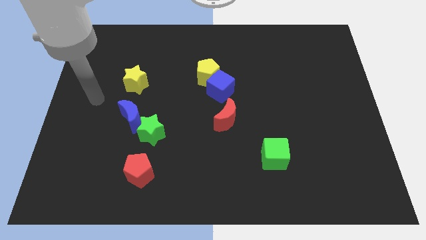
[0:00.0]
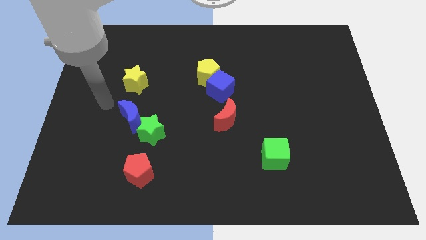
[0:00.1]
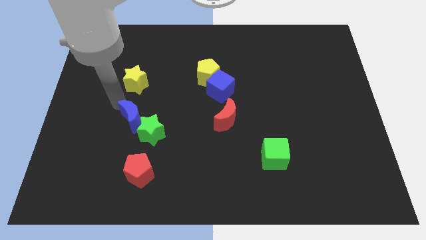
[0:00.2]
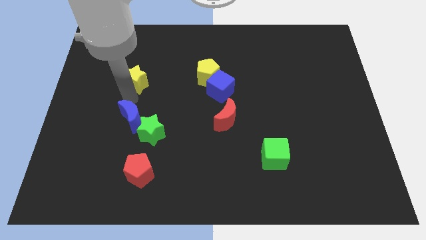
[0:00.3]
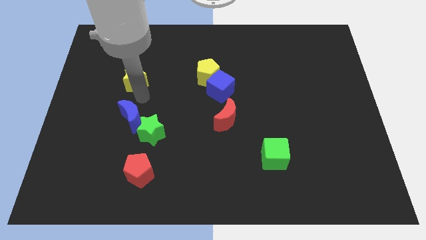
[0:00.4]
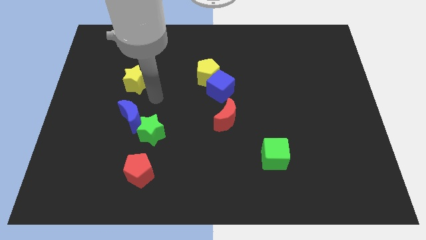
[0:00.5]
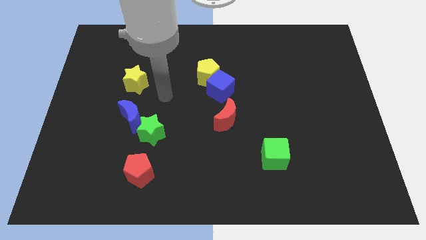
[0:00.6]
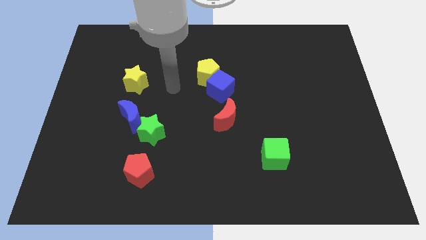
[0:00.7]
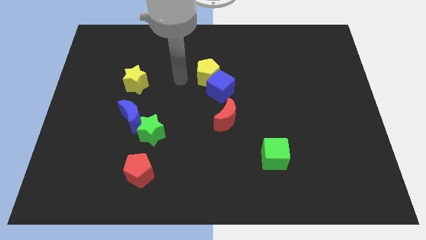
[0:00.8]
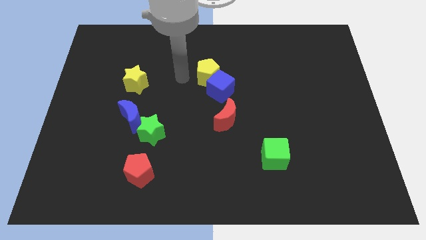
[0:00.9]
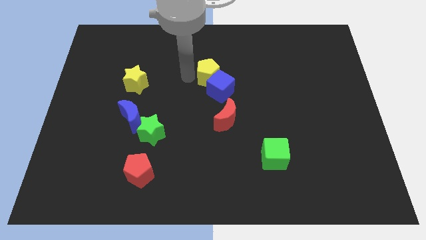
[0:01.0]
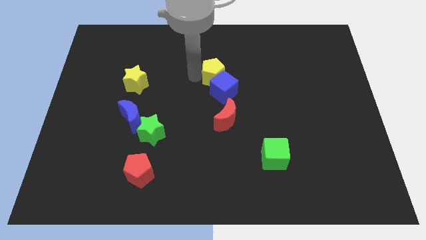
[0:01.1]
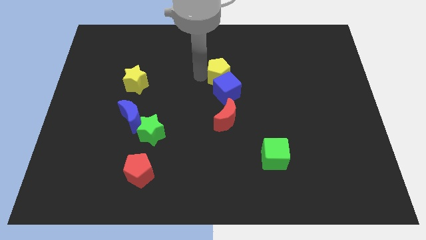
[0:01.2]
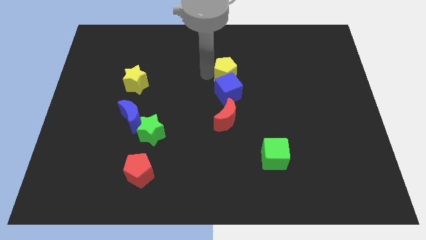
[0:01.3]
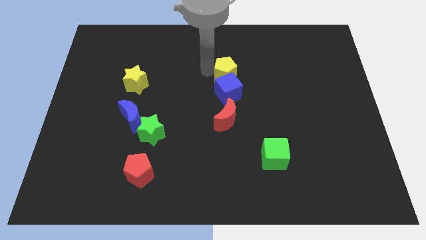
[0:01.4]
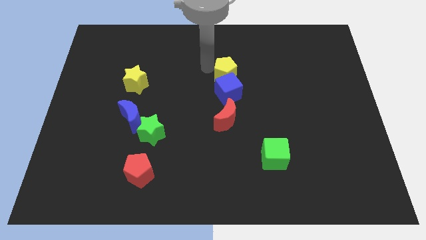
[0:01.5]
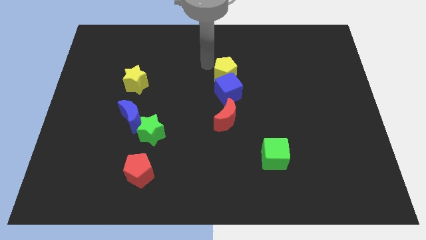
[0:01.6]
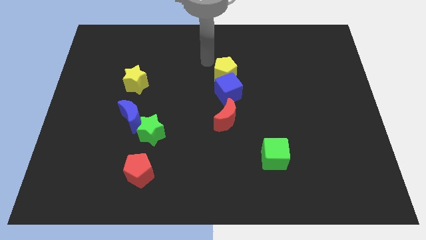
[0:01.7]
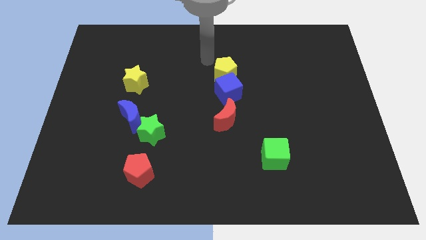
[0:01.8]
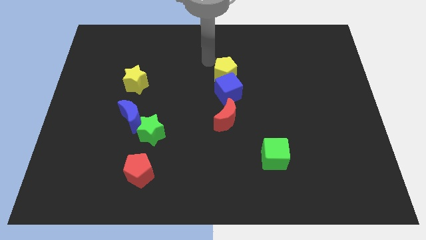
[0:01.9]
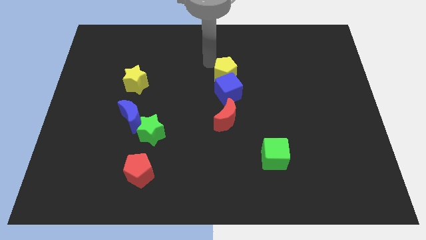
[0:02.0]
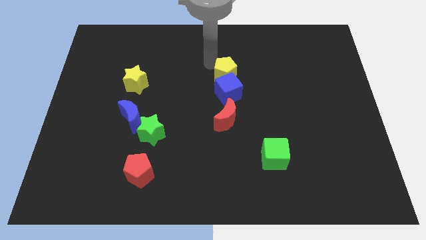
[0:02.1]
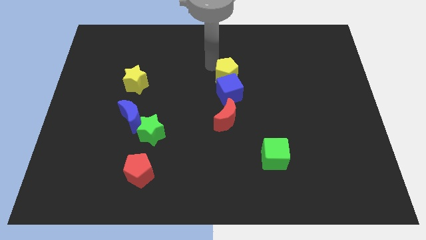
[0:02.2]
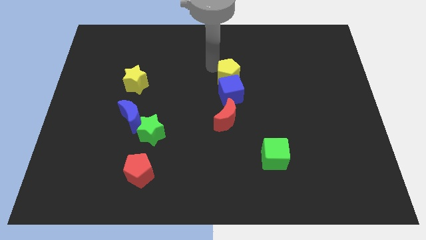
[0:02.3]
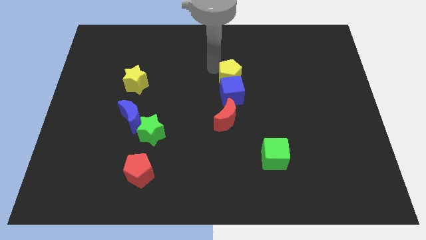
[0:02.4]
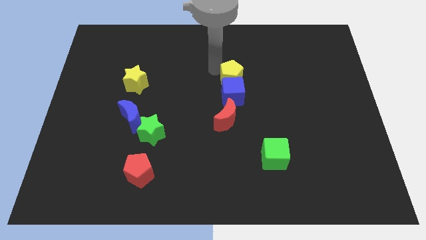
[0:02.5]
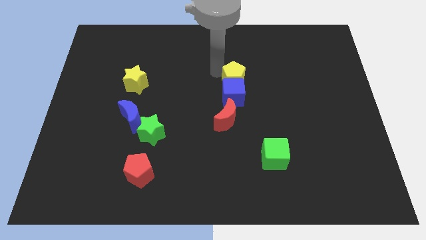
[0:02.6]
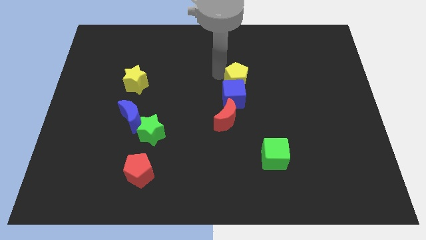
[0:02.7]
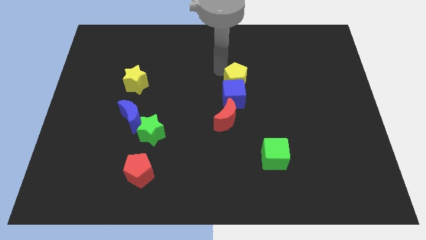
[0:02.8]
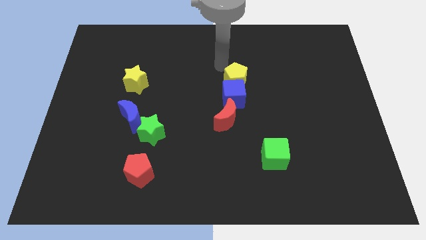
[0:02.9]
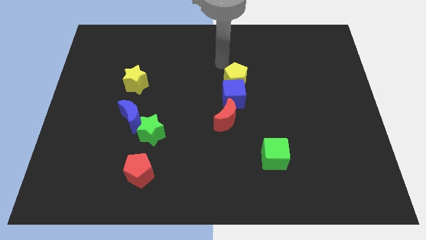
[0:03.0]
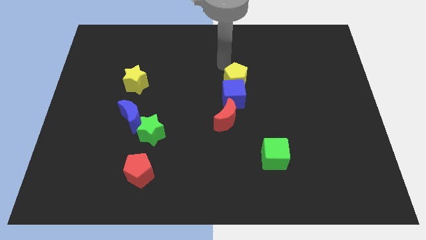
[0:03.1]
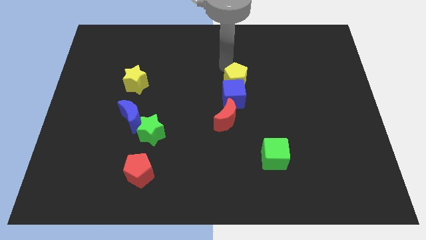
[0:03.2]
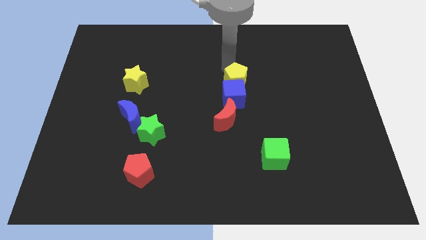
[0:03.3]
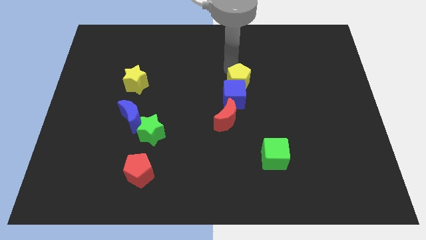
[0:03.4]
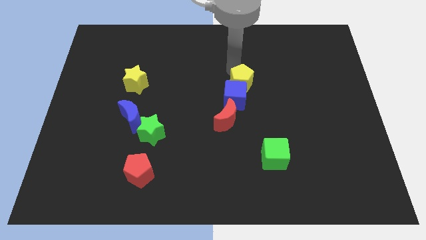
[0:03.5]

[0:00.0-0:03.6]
slightly push the yellow pentagon down and to the right diagonally

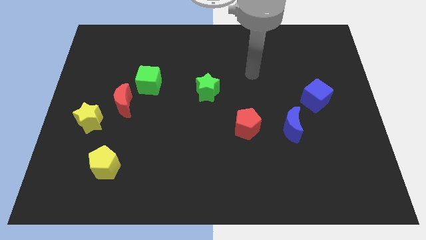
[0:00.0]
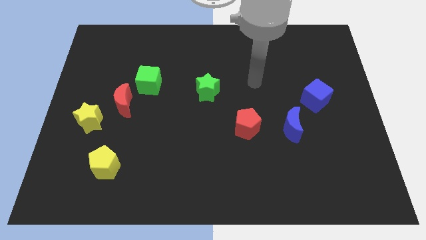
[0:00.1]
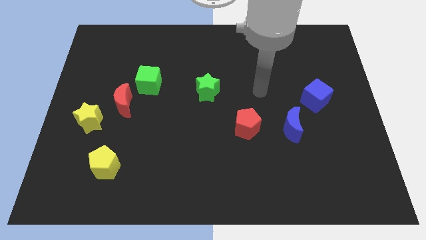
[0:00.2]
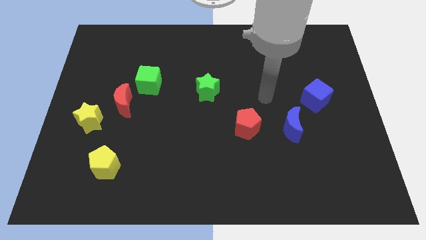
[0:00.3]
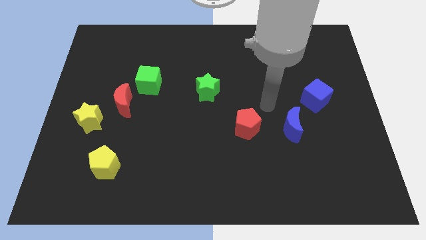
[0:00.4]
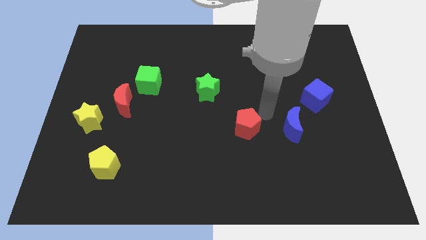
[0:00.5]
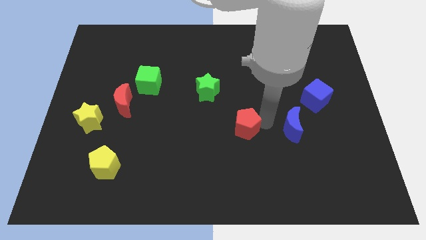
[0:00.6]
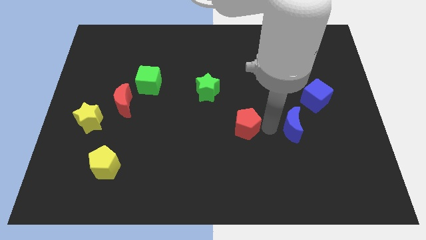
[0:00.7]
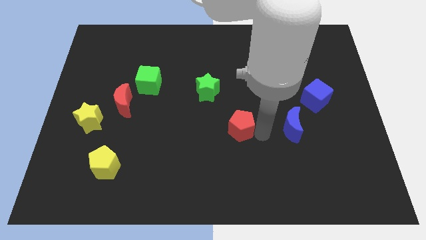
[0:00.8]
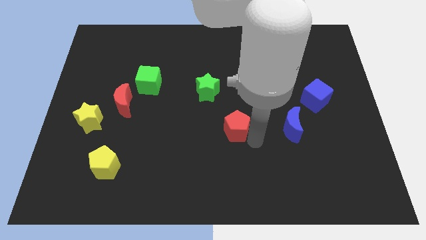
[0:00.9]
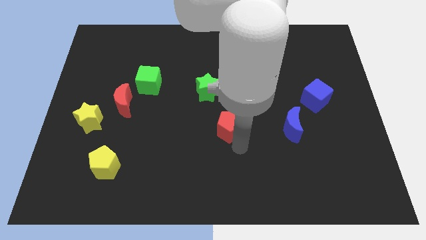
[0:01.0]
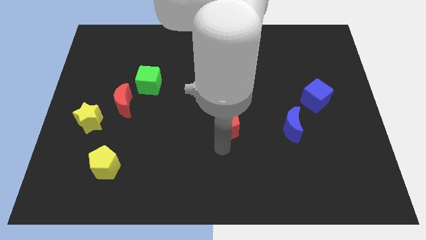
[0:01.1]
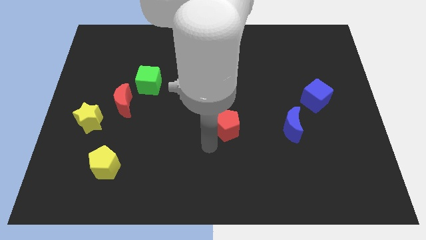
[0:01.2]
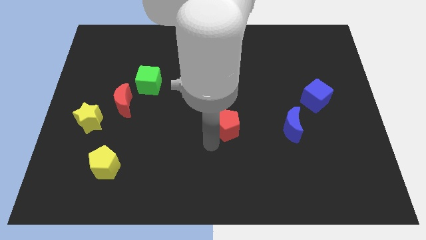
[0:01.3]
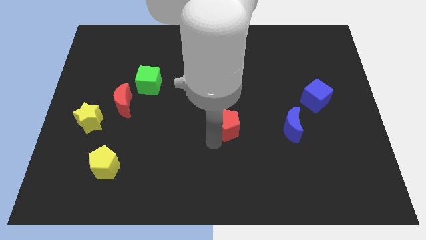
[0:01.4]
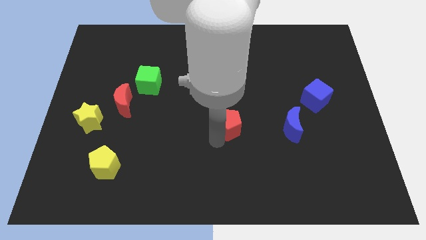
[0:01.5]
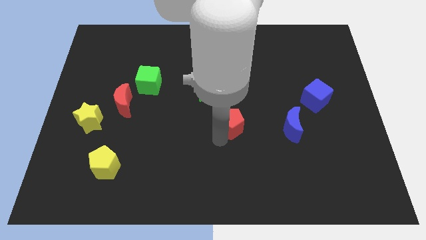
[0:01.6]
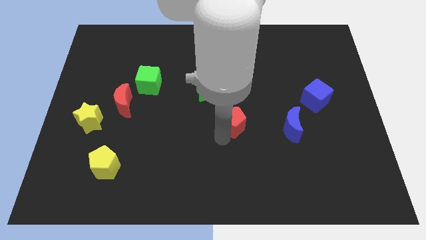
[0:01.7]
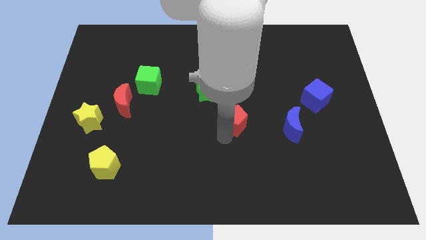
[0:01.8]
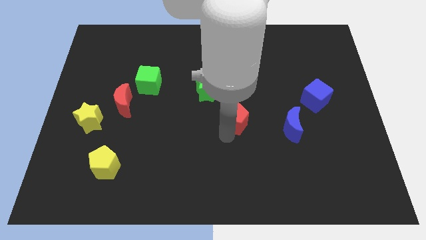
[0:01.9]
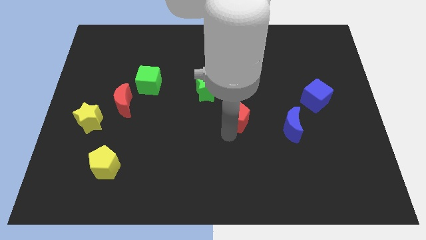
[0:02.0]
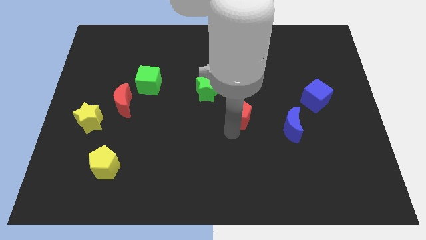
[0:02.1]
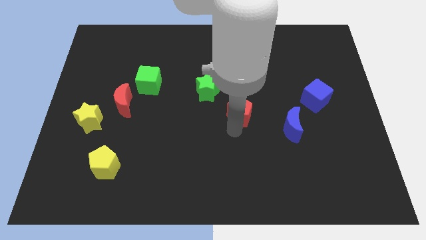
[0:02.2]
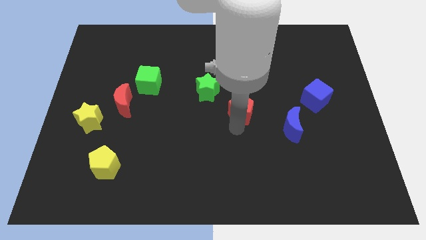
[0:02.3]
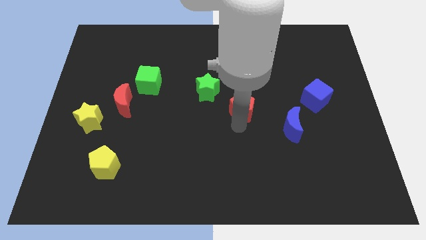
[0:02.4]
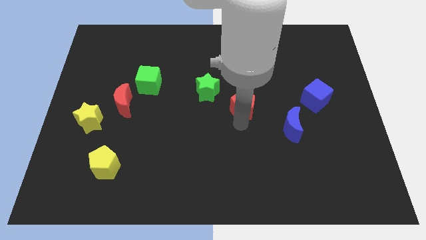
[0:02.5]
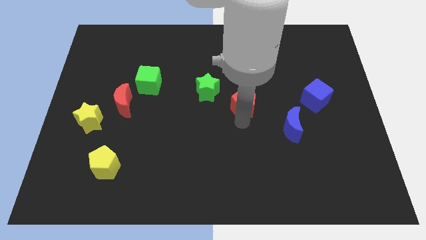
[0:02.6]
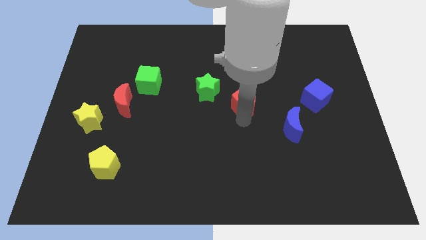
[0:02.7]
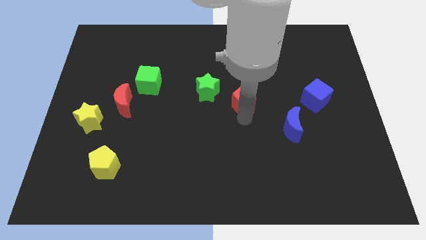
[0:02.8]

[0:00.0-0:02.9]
push the red pentagon up slightly

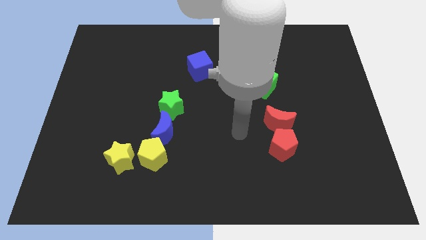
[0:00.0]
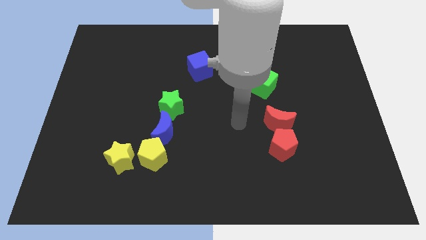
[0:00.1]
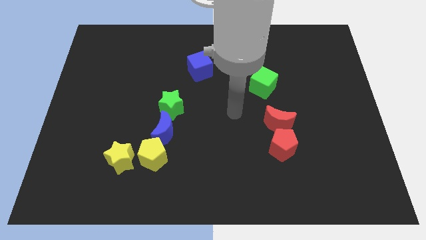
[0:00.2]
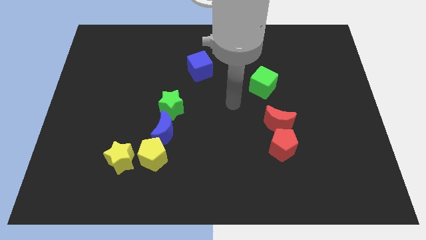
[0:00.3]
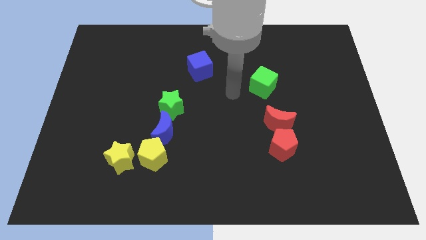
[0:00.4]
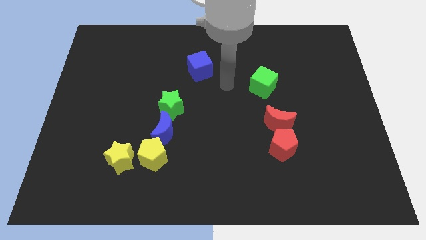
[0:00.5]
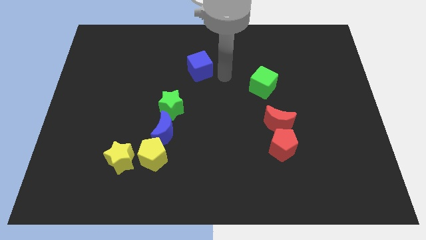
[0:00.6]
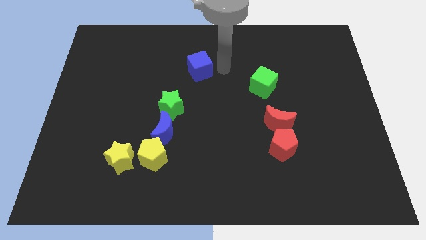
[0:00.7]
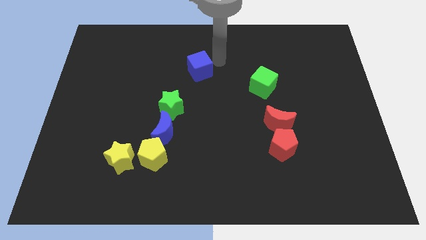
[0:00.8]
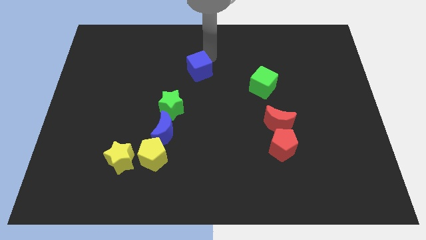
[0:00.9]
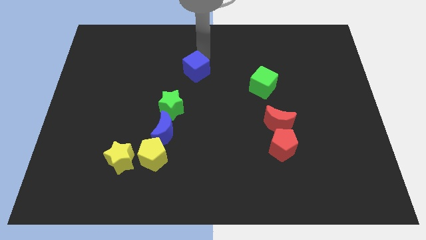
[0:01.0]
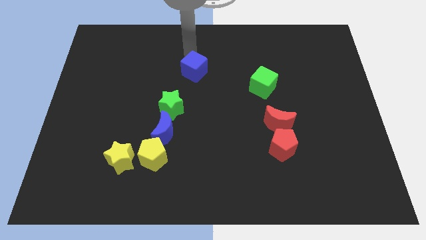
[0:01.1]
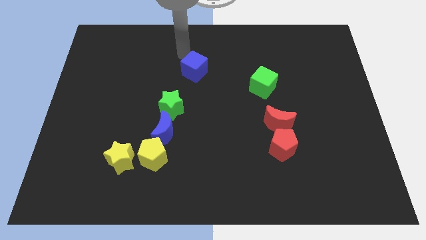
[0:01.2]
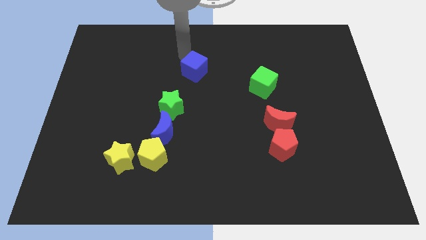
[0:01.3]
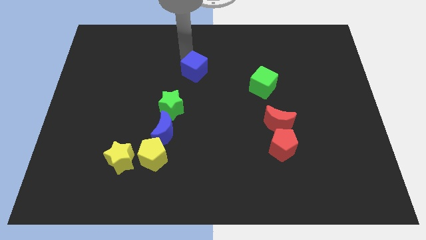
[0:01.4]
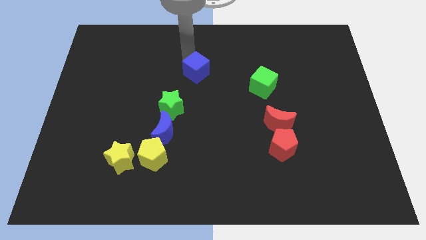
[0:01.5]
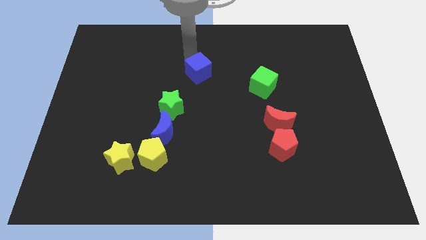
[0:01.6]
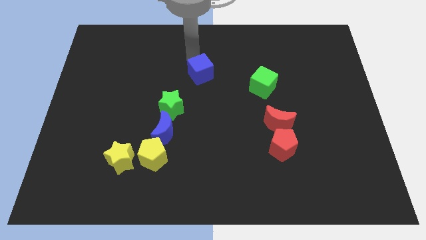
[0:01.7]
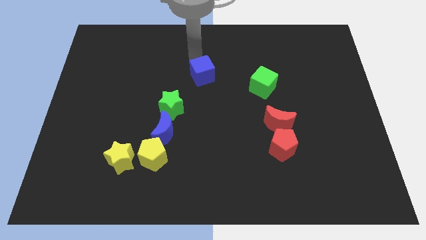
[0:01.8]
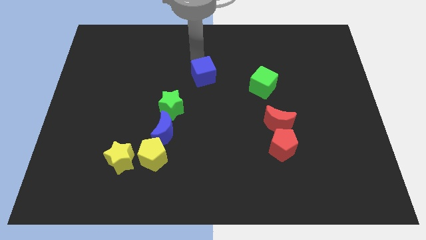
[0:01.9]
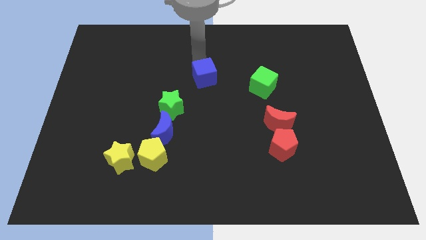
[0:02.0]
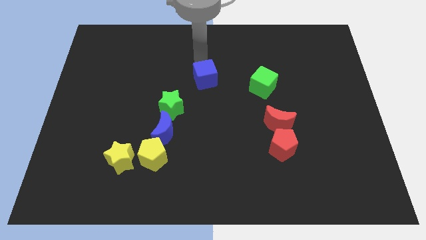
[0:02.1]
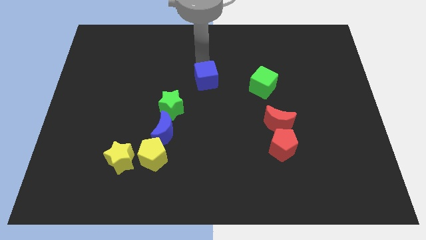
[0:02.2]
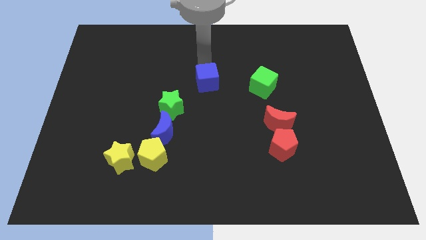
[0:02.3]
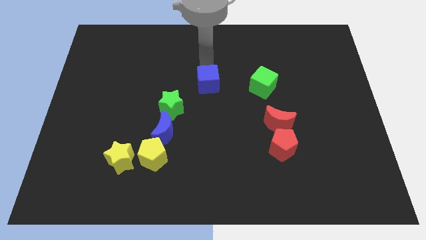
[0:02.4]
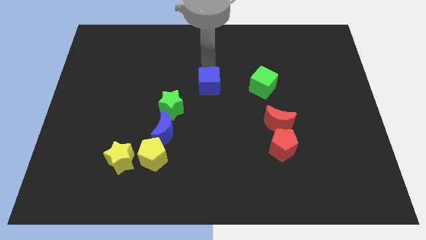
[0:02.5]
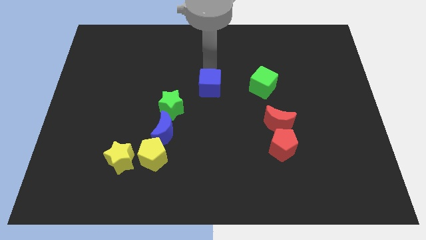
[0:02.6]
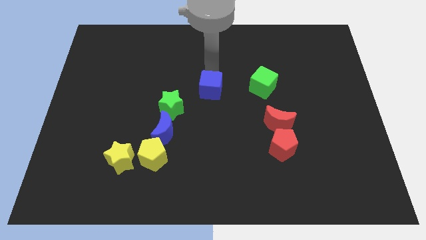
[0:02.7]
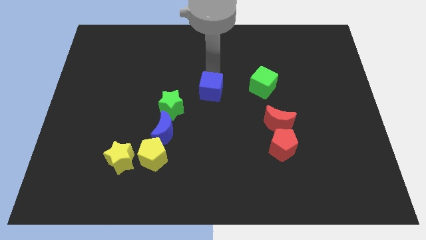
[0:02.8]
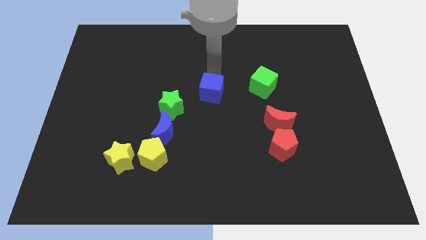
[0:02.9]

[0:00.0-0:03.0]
move the blue cube a little downwards
